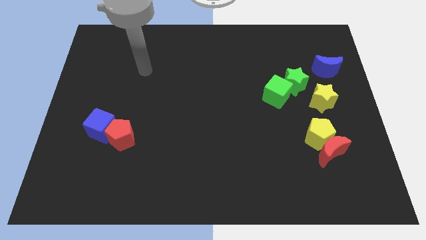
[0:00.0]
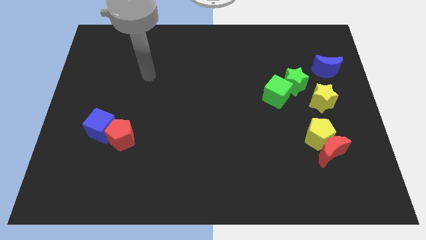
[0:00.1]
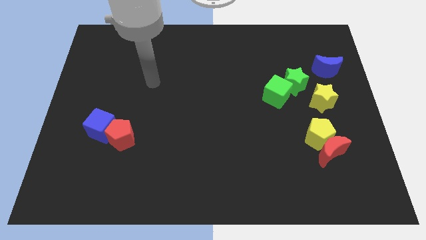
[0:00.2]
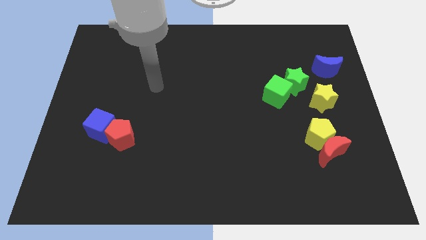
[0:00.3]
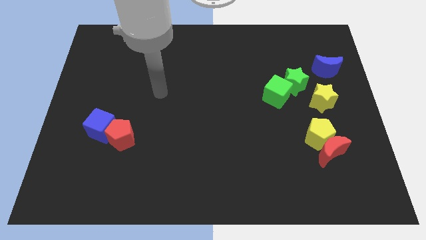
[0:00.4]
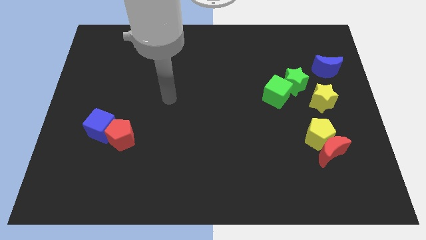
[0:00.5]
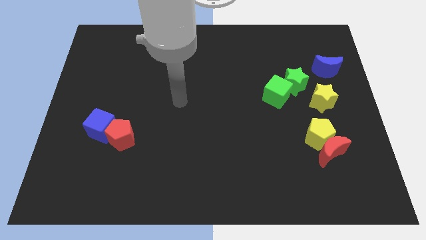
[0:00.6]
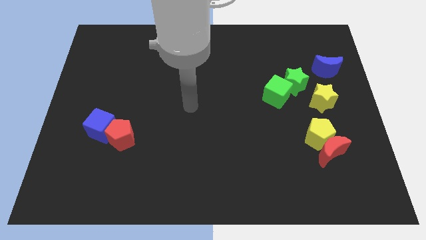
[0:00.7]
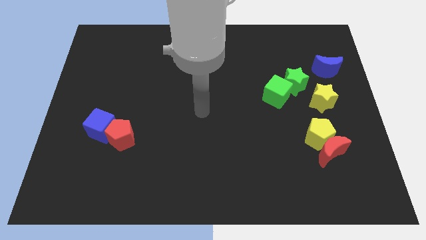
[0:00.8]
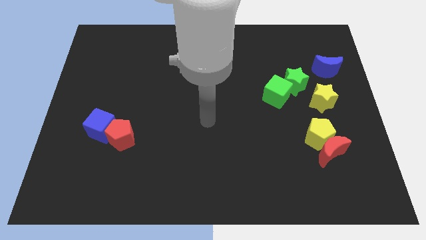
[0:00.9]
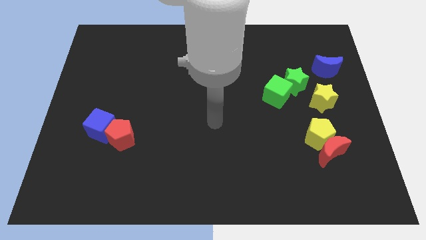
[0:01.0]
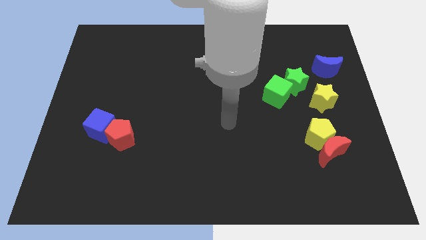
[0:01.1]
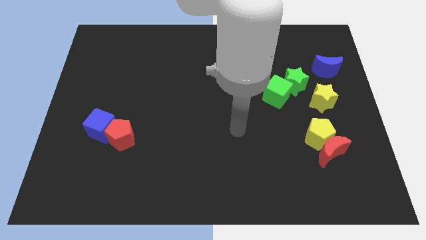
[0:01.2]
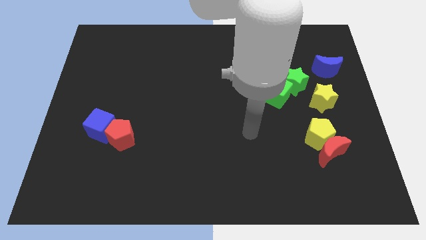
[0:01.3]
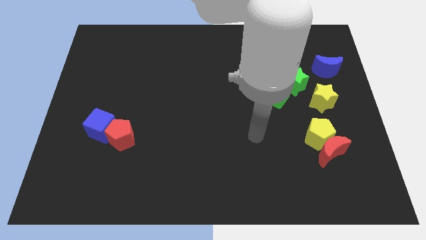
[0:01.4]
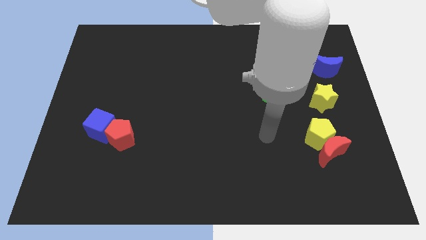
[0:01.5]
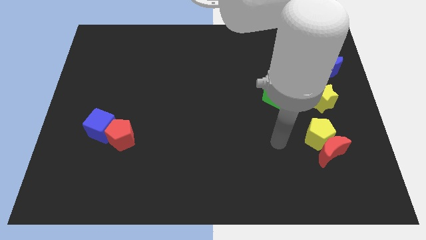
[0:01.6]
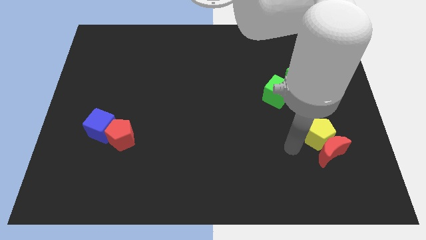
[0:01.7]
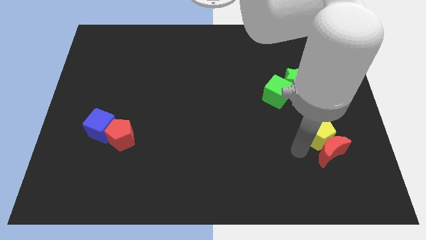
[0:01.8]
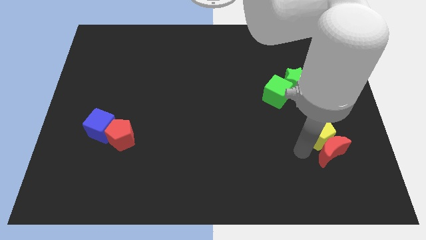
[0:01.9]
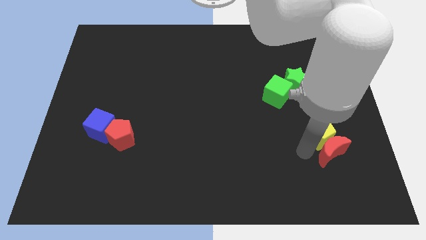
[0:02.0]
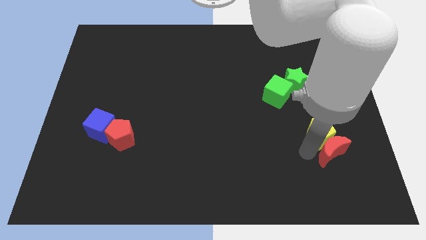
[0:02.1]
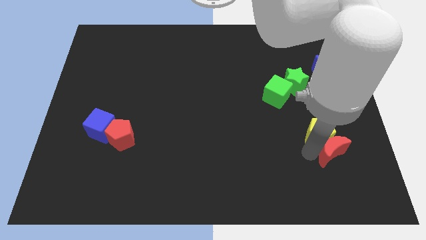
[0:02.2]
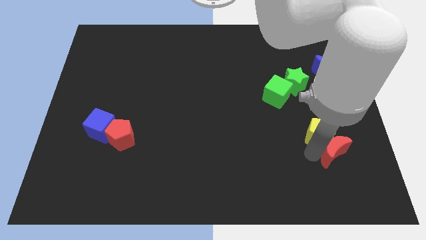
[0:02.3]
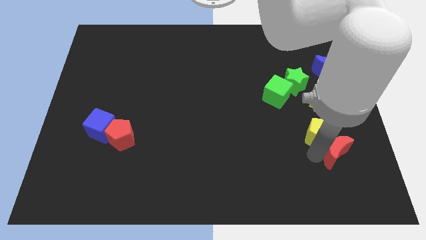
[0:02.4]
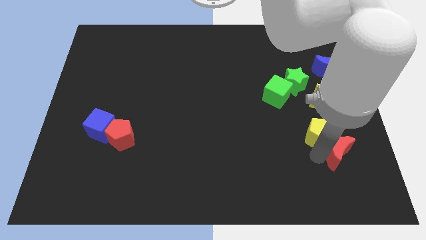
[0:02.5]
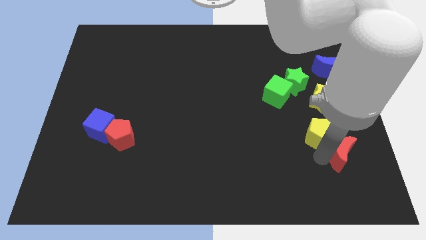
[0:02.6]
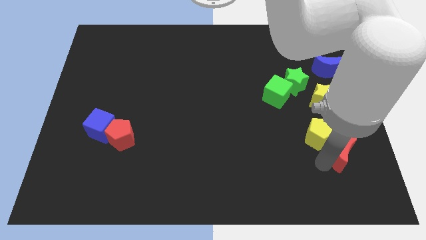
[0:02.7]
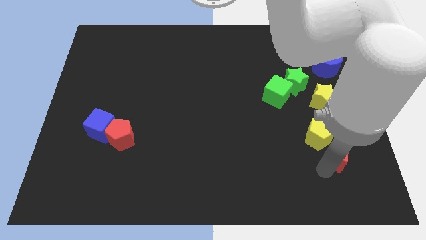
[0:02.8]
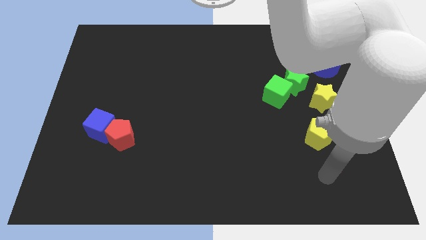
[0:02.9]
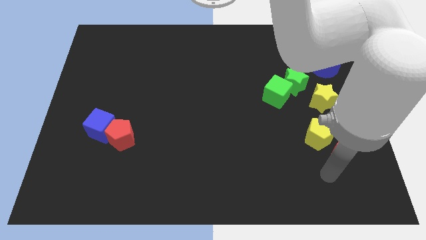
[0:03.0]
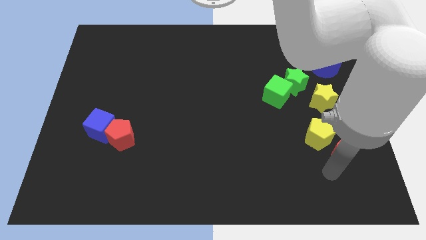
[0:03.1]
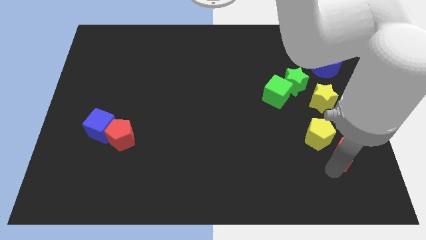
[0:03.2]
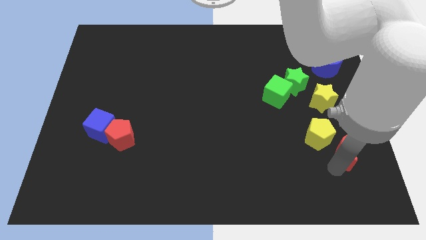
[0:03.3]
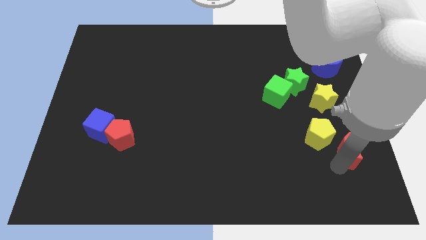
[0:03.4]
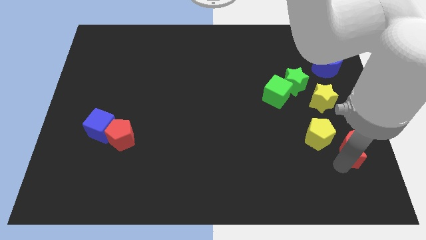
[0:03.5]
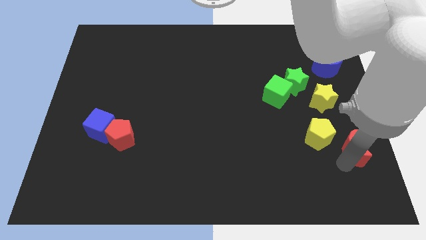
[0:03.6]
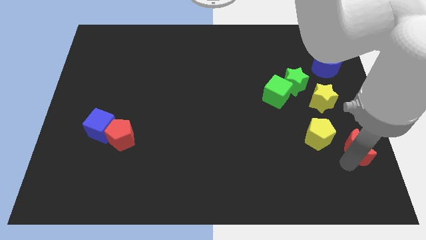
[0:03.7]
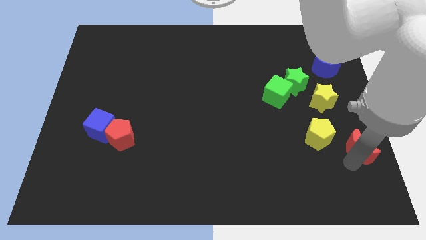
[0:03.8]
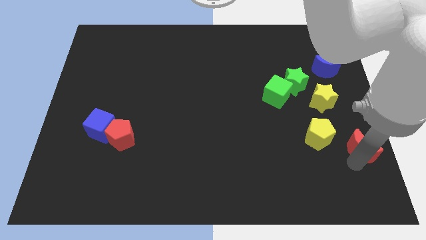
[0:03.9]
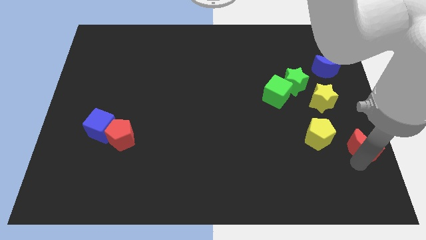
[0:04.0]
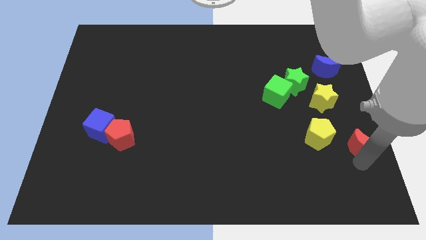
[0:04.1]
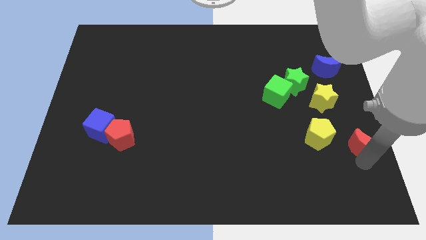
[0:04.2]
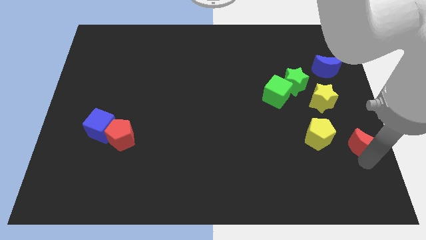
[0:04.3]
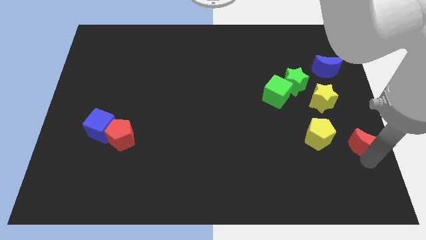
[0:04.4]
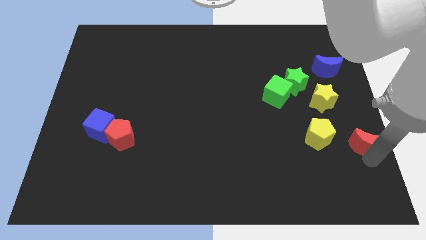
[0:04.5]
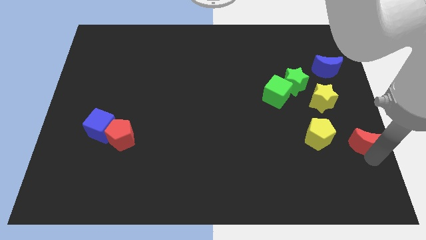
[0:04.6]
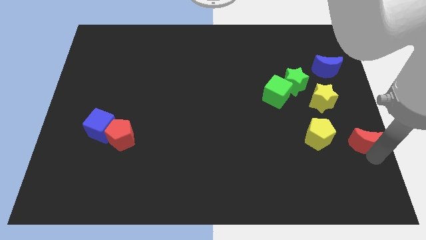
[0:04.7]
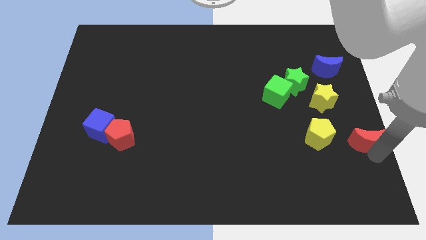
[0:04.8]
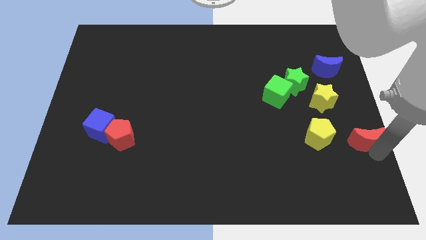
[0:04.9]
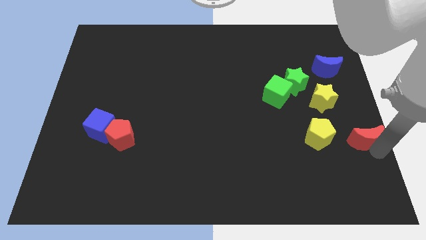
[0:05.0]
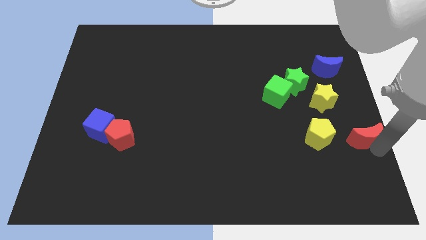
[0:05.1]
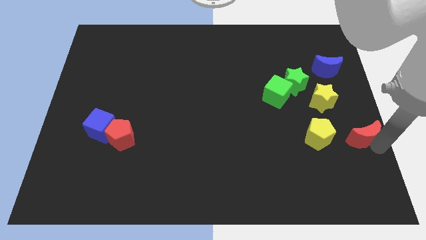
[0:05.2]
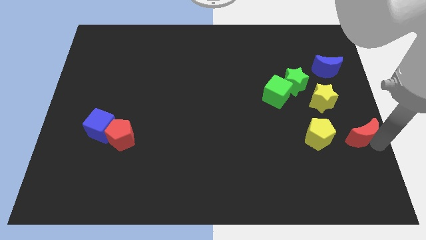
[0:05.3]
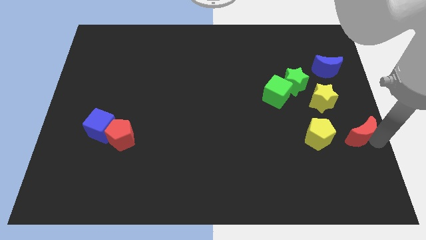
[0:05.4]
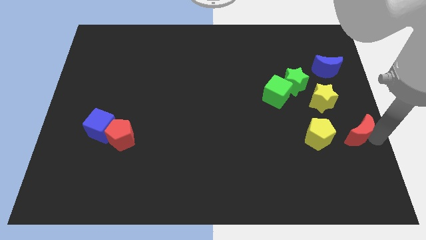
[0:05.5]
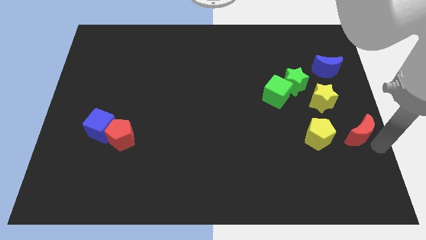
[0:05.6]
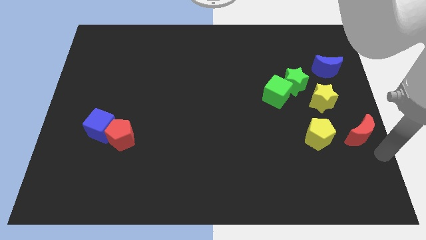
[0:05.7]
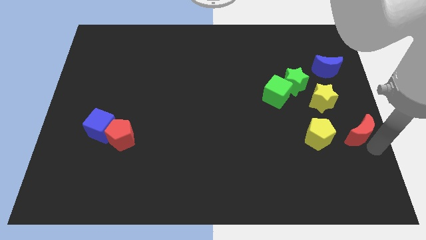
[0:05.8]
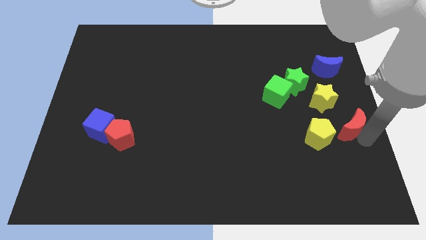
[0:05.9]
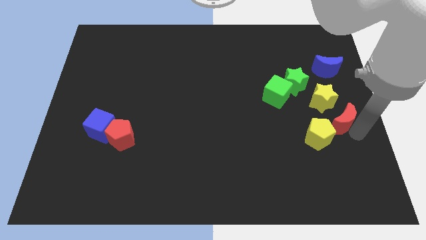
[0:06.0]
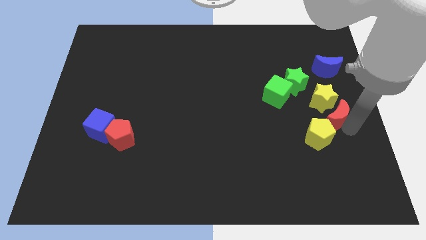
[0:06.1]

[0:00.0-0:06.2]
move the red moon to the yellow star

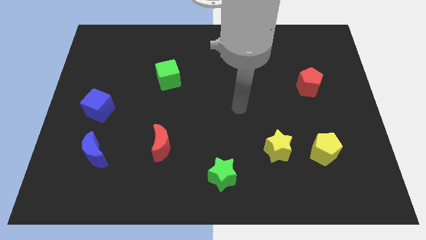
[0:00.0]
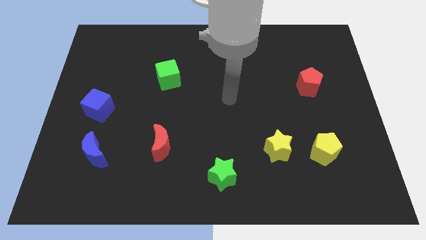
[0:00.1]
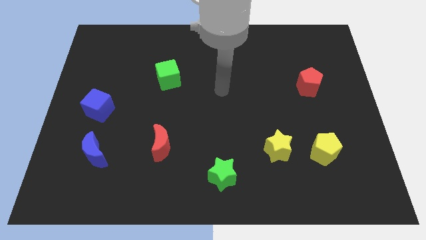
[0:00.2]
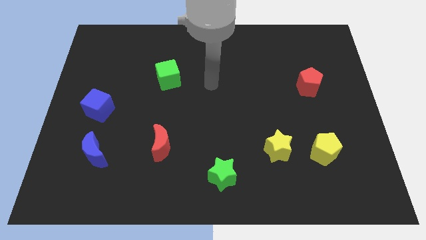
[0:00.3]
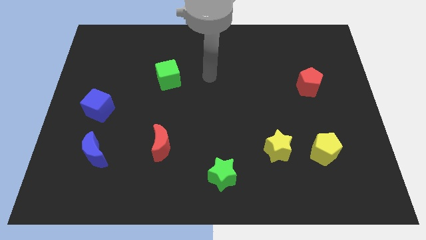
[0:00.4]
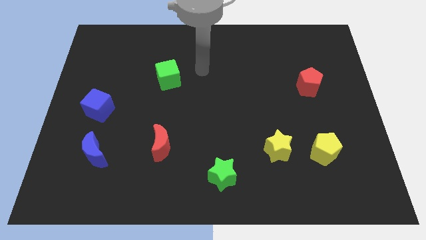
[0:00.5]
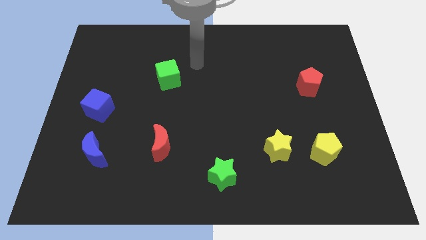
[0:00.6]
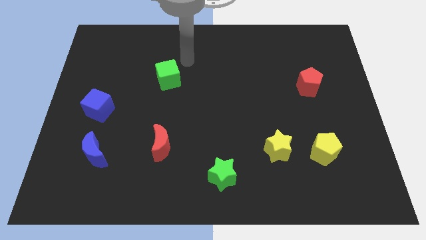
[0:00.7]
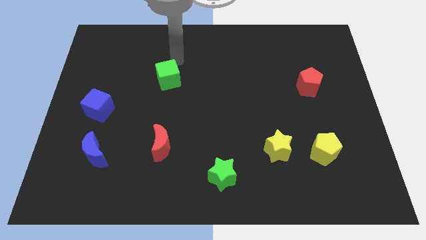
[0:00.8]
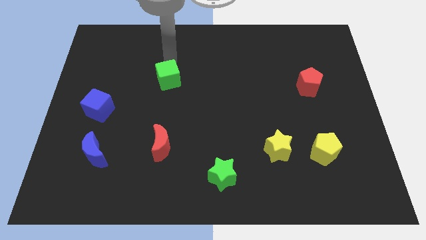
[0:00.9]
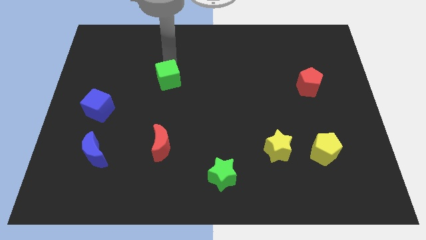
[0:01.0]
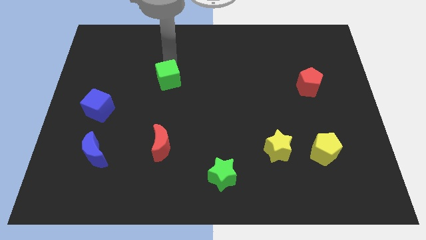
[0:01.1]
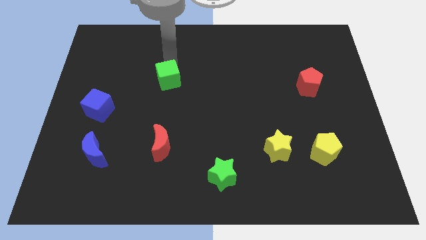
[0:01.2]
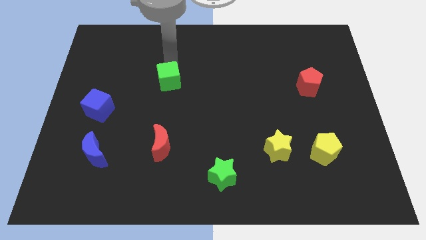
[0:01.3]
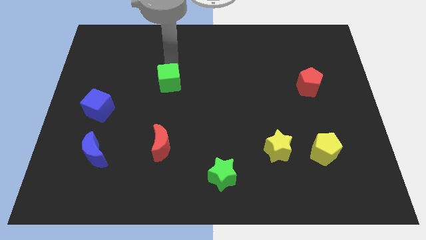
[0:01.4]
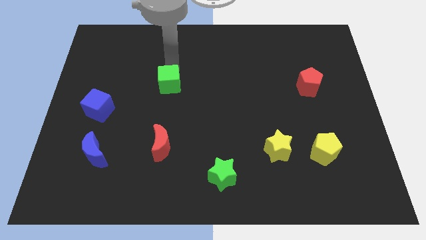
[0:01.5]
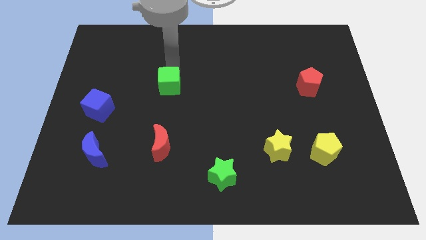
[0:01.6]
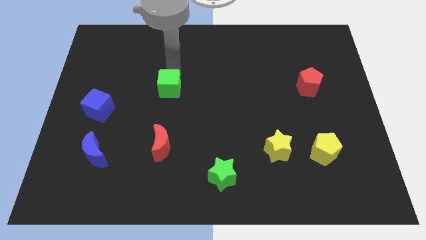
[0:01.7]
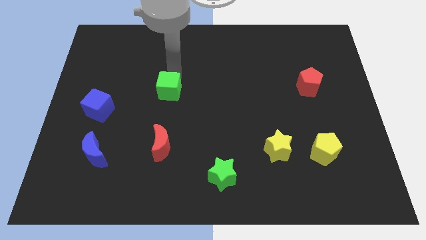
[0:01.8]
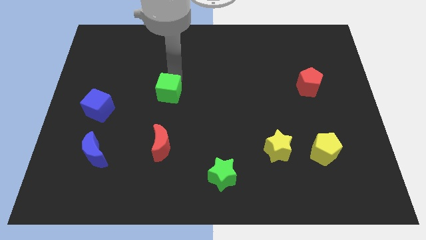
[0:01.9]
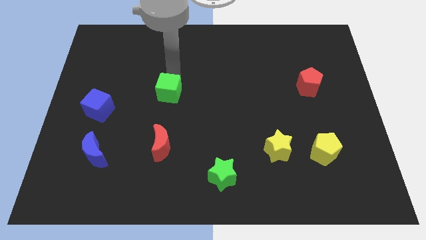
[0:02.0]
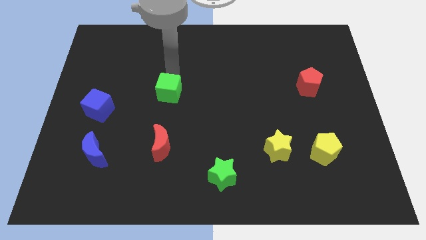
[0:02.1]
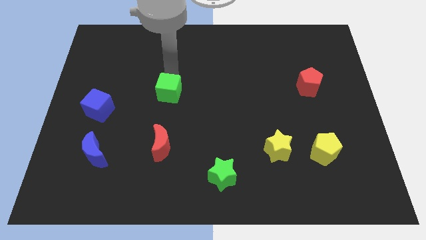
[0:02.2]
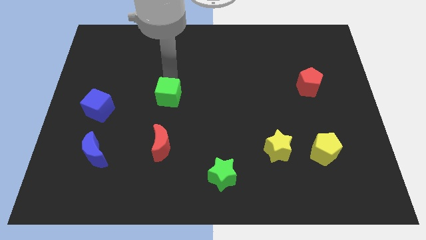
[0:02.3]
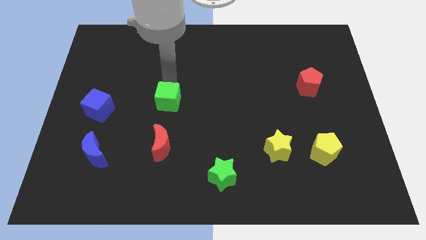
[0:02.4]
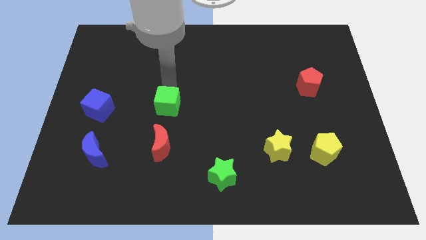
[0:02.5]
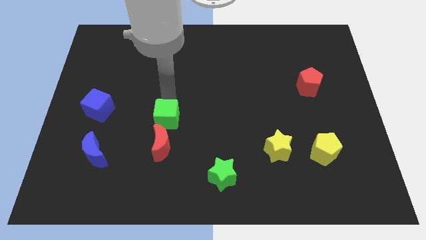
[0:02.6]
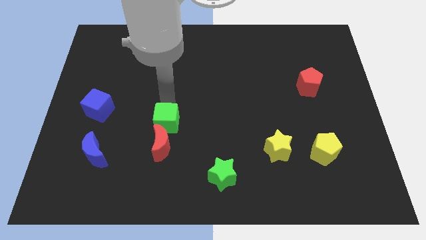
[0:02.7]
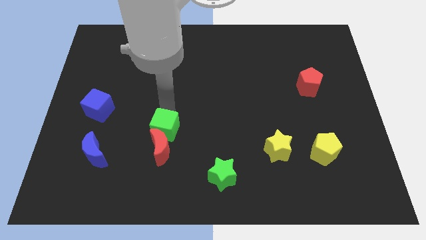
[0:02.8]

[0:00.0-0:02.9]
slide the green cube close to the red moon
